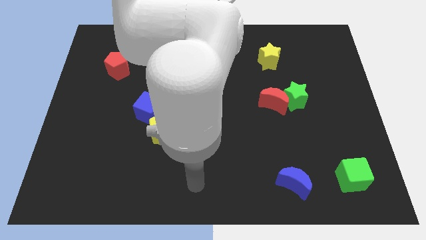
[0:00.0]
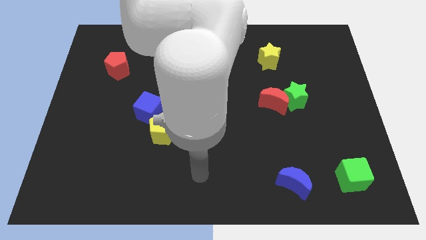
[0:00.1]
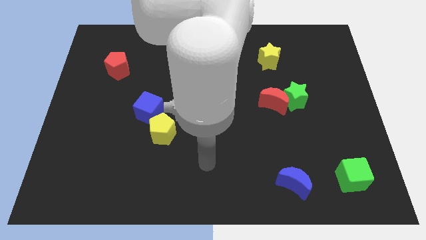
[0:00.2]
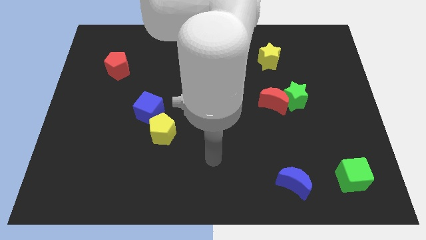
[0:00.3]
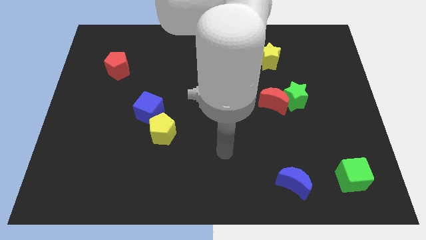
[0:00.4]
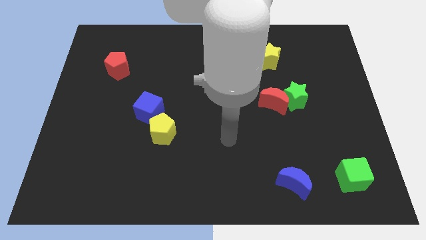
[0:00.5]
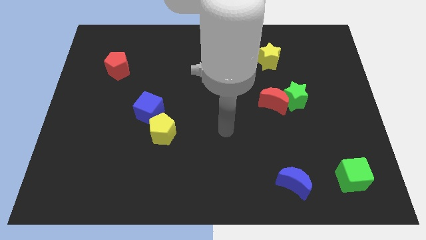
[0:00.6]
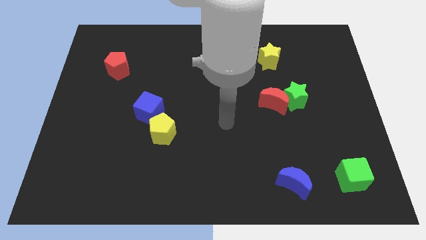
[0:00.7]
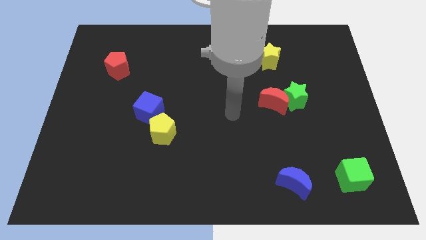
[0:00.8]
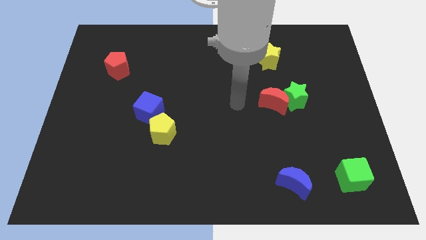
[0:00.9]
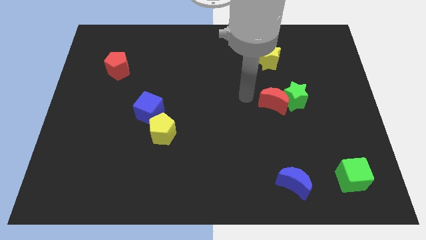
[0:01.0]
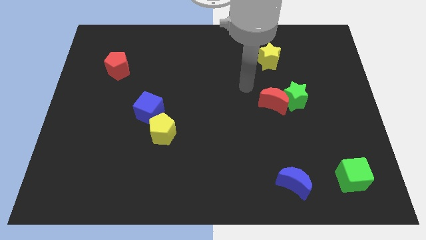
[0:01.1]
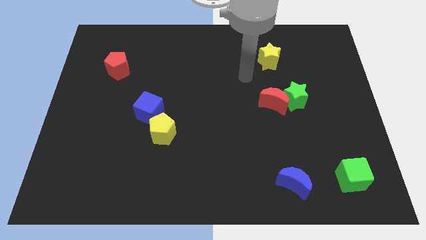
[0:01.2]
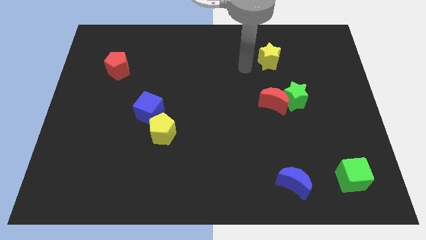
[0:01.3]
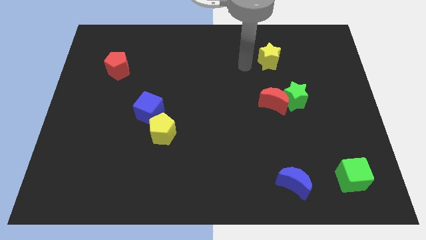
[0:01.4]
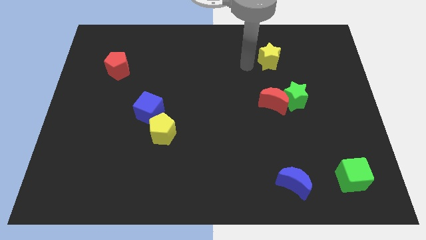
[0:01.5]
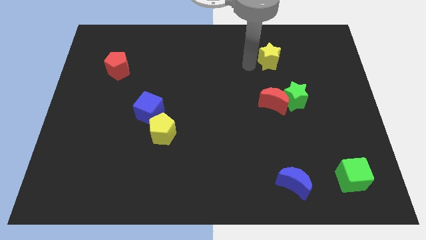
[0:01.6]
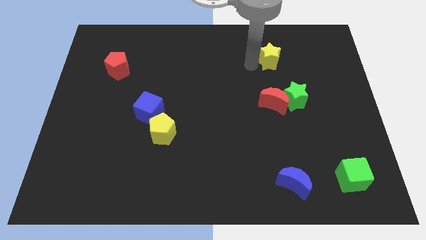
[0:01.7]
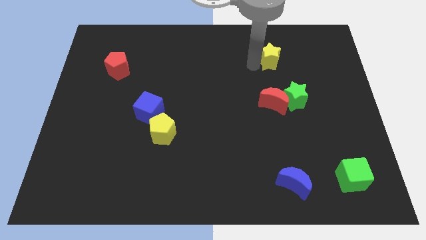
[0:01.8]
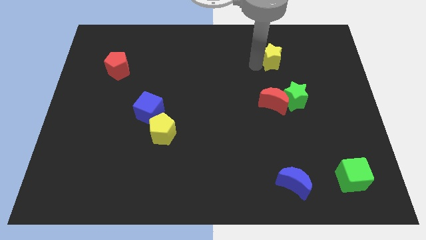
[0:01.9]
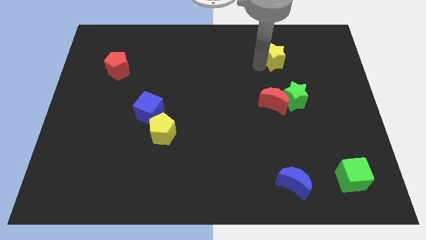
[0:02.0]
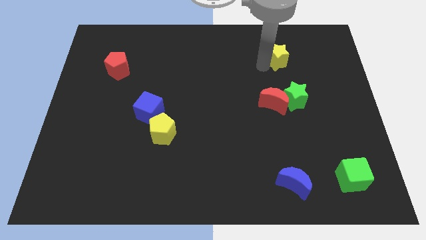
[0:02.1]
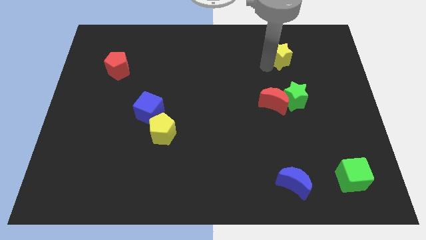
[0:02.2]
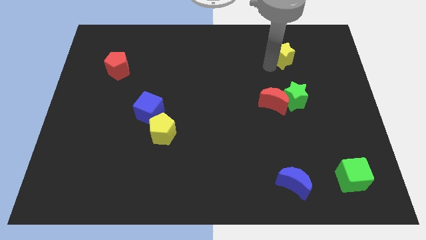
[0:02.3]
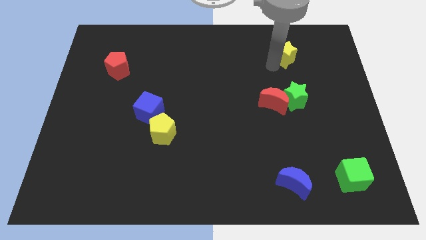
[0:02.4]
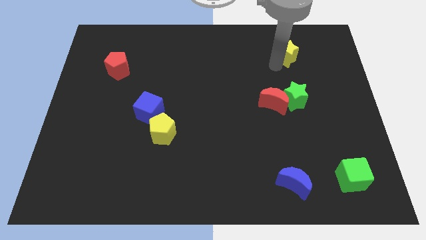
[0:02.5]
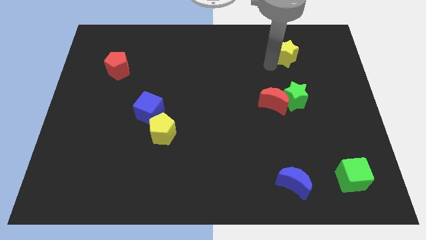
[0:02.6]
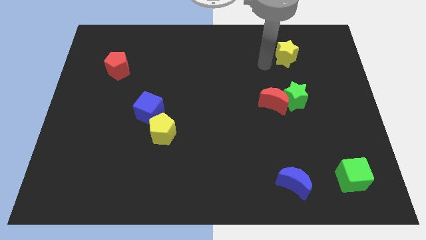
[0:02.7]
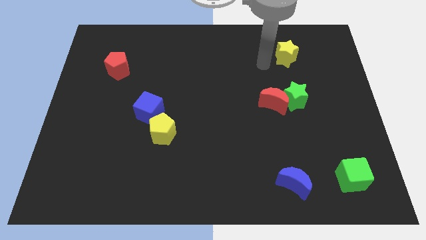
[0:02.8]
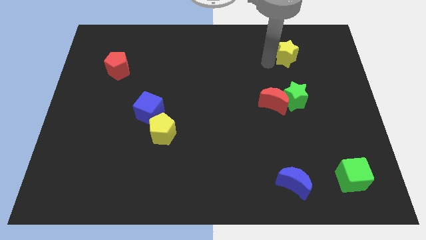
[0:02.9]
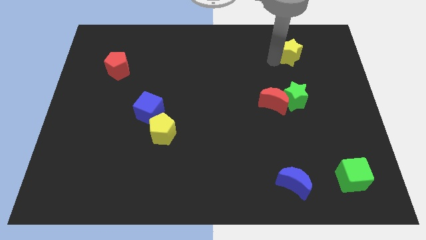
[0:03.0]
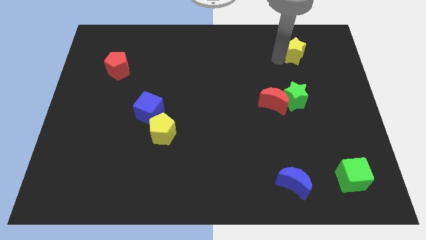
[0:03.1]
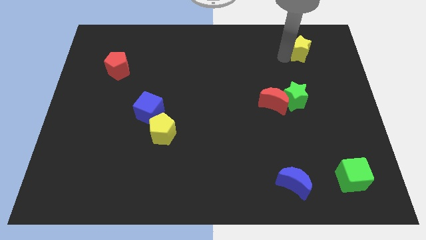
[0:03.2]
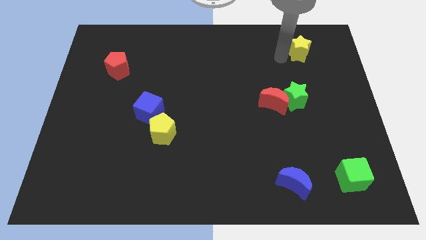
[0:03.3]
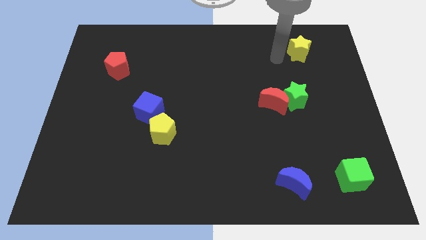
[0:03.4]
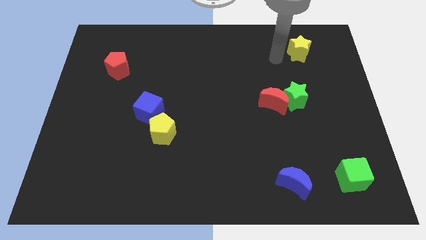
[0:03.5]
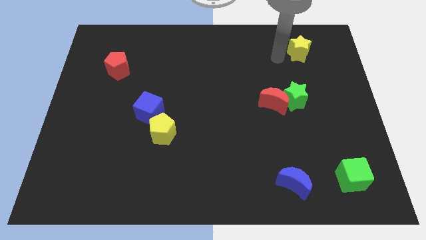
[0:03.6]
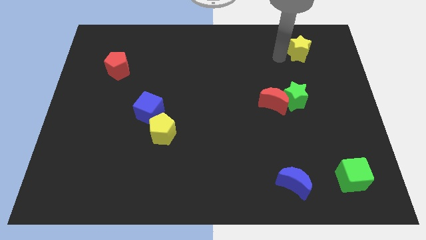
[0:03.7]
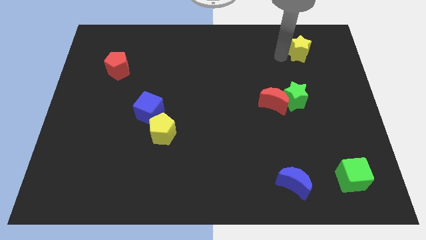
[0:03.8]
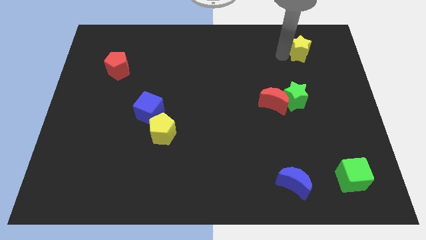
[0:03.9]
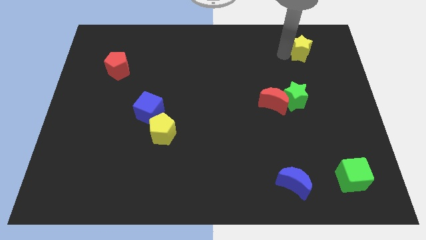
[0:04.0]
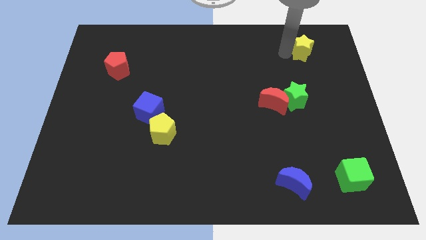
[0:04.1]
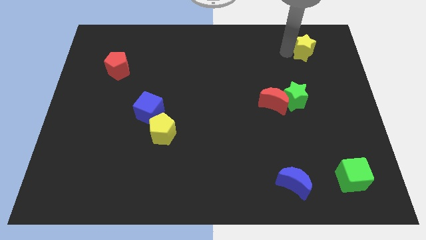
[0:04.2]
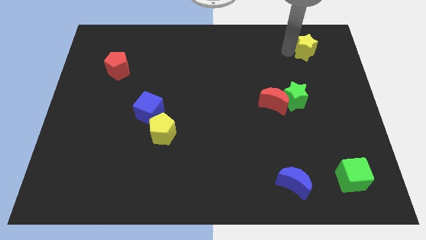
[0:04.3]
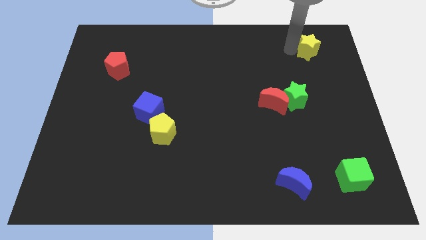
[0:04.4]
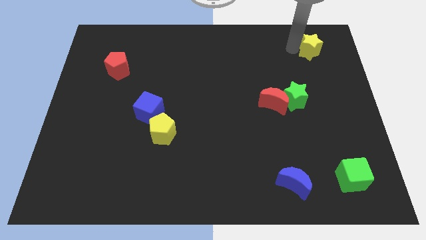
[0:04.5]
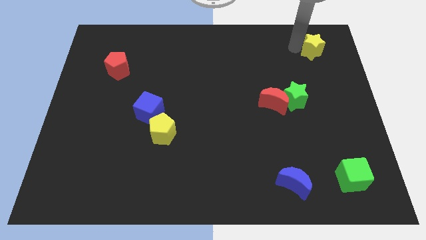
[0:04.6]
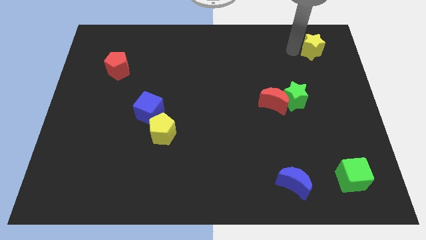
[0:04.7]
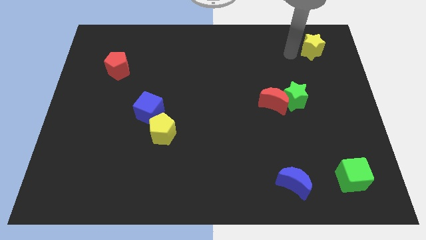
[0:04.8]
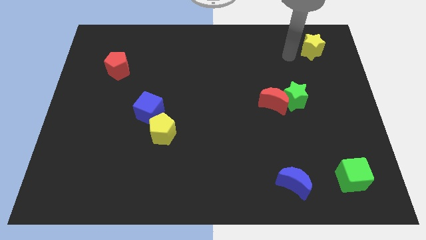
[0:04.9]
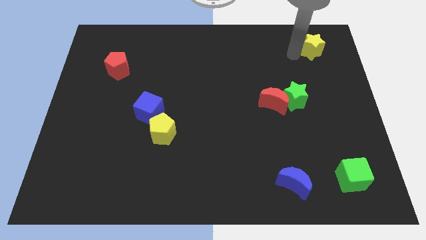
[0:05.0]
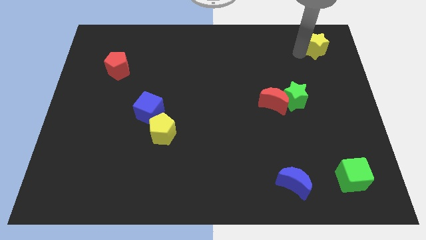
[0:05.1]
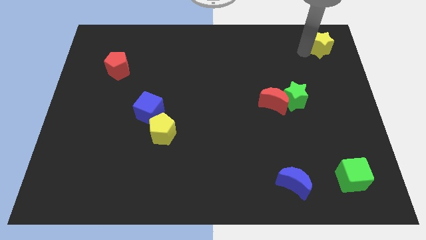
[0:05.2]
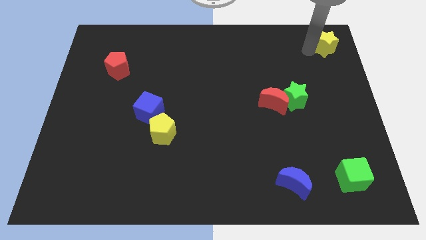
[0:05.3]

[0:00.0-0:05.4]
push the yellow star to the top right corner

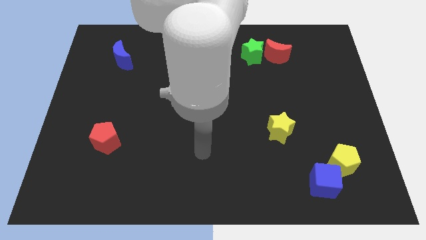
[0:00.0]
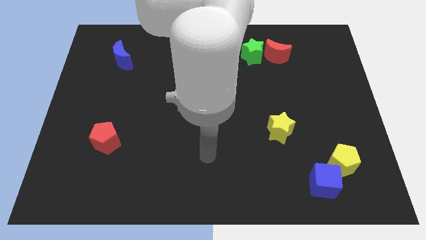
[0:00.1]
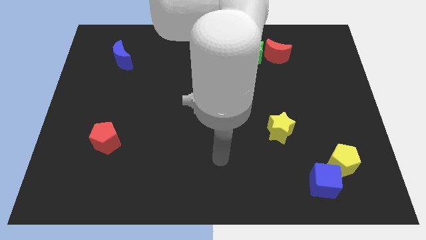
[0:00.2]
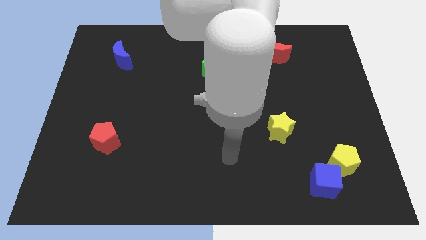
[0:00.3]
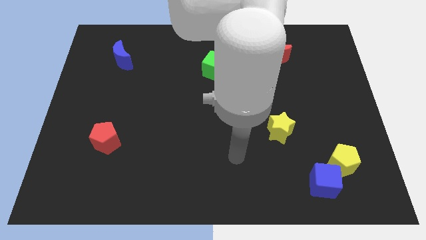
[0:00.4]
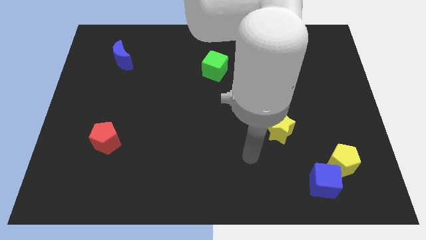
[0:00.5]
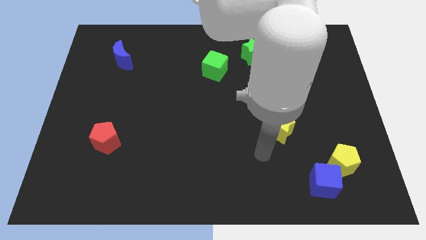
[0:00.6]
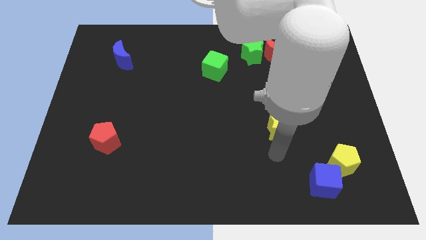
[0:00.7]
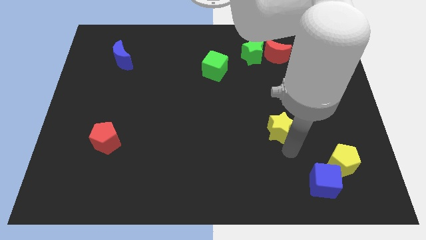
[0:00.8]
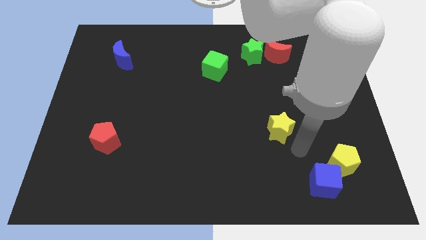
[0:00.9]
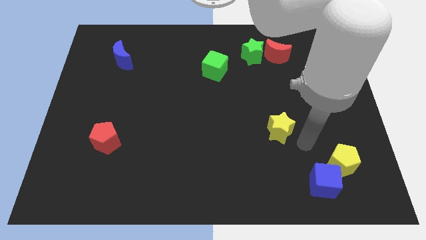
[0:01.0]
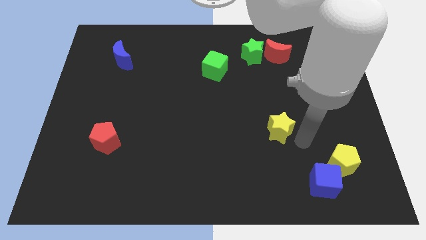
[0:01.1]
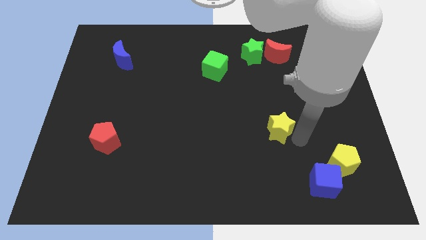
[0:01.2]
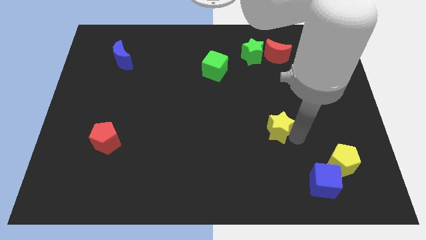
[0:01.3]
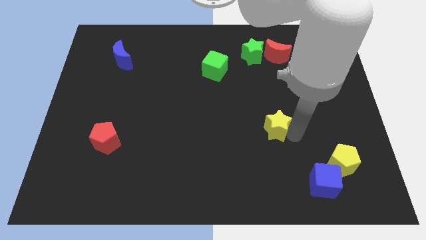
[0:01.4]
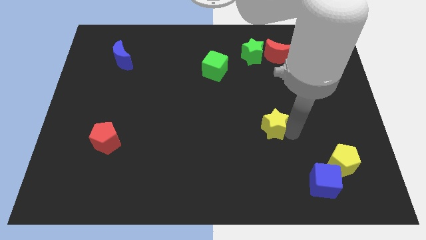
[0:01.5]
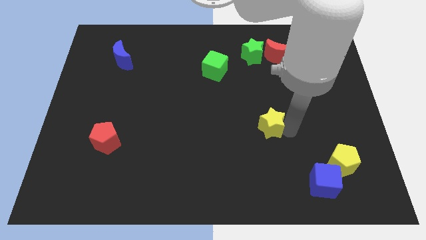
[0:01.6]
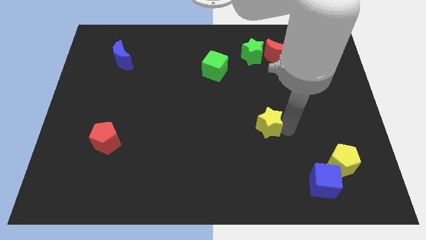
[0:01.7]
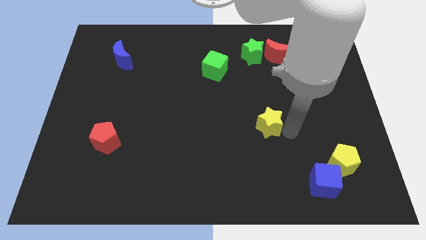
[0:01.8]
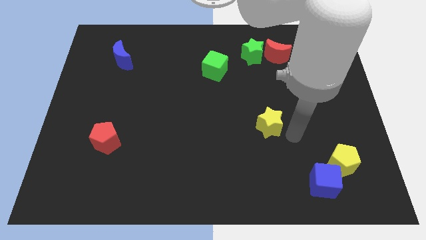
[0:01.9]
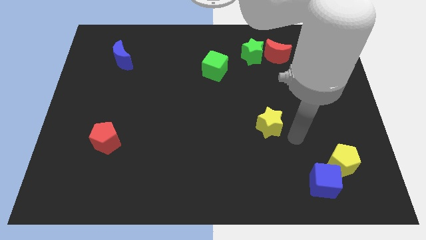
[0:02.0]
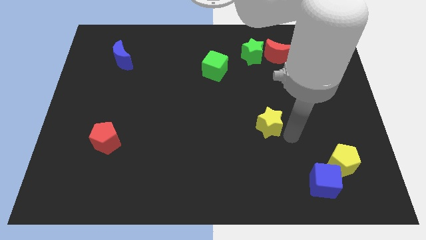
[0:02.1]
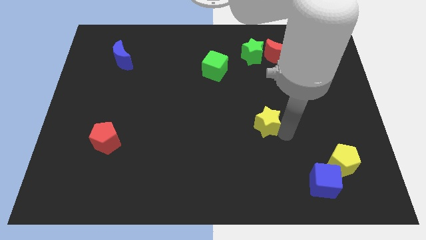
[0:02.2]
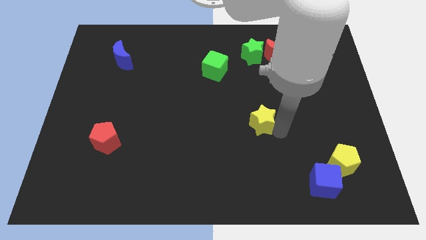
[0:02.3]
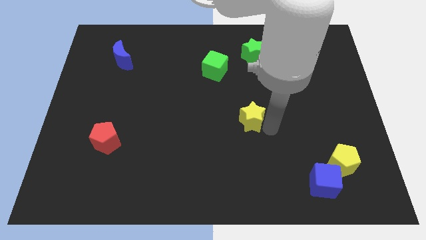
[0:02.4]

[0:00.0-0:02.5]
move the yellow star to the middle of the board

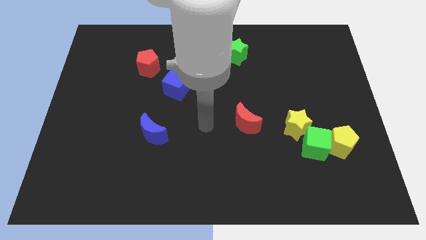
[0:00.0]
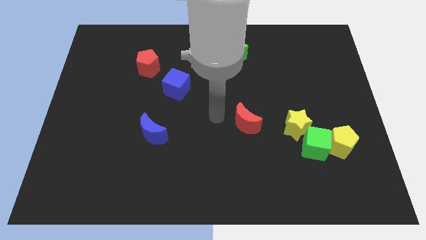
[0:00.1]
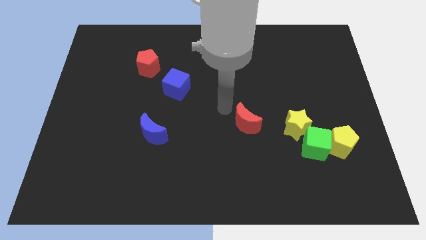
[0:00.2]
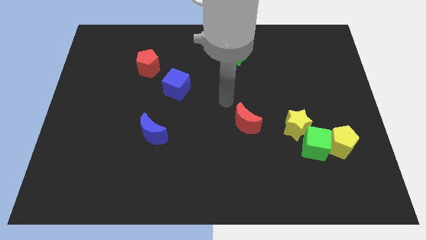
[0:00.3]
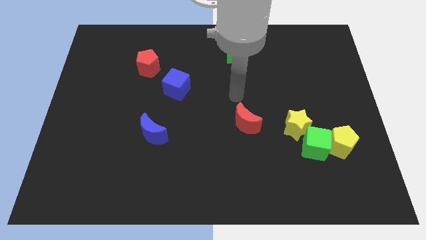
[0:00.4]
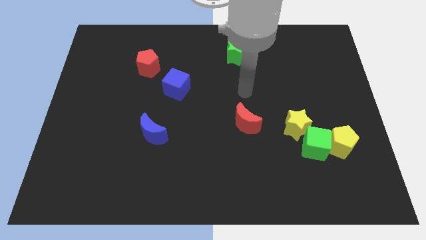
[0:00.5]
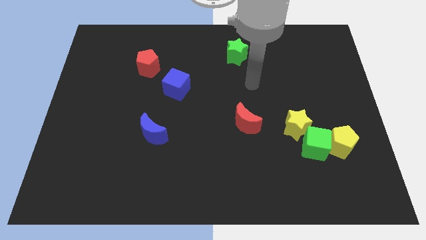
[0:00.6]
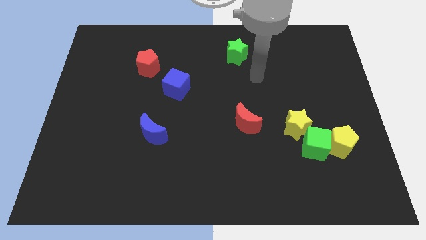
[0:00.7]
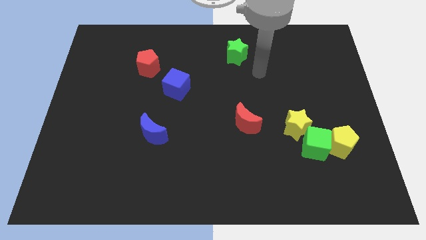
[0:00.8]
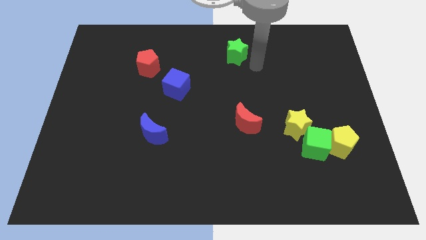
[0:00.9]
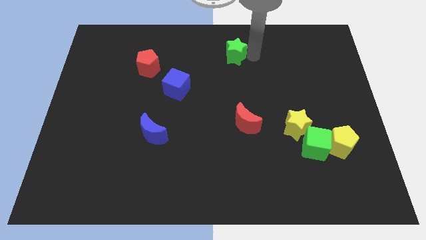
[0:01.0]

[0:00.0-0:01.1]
push the green star to the top side
